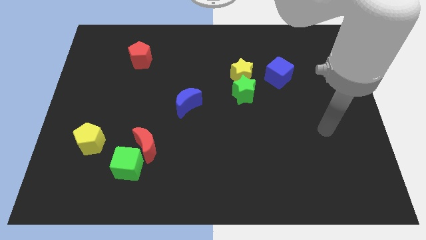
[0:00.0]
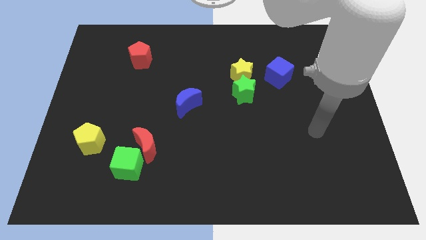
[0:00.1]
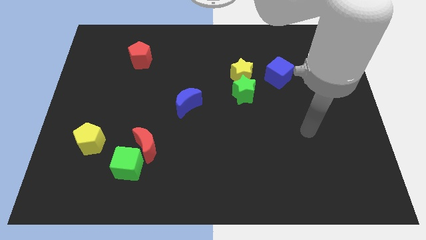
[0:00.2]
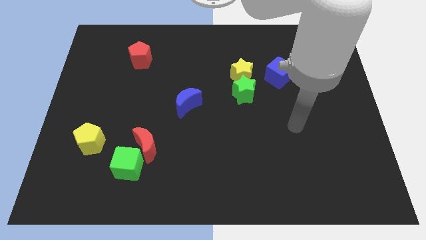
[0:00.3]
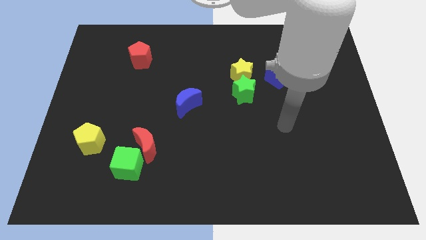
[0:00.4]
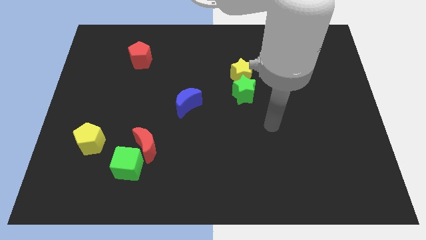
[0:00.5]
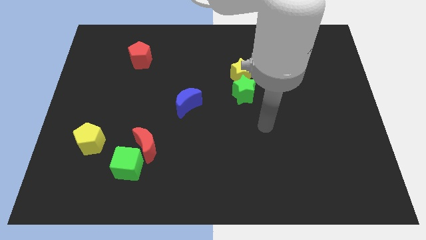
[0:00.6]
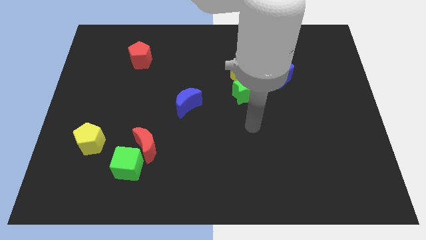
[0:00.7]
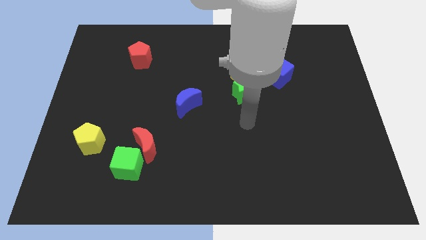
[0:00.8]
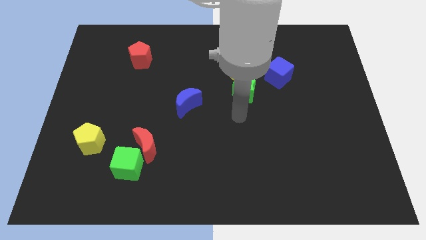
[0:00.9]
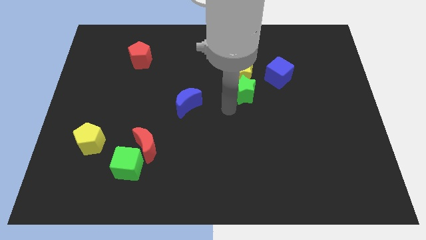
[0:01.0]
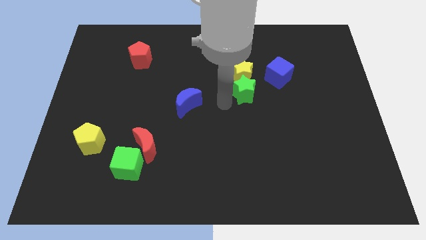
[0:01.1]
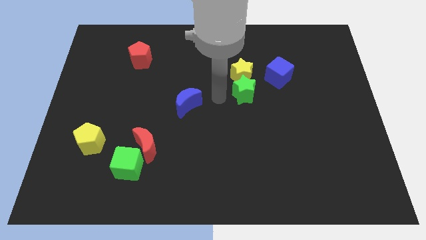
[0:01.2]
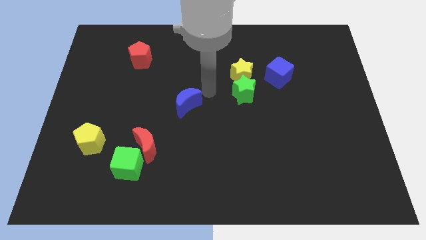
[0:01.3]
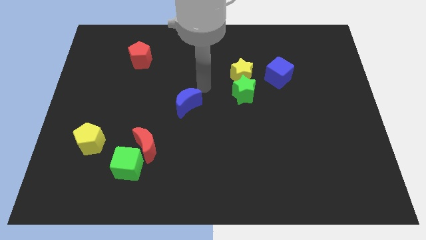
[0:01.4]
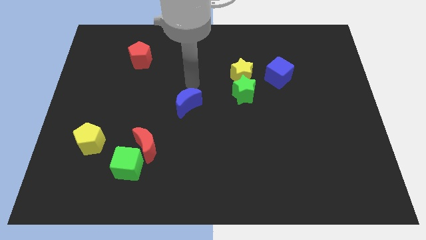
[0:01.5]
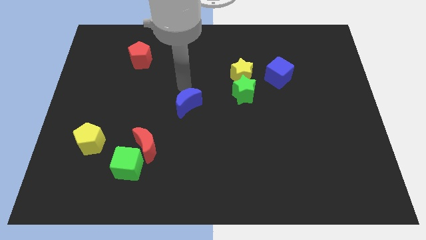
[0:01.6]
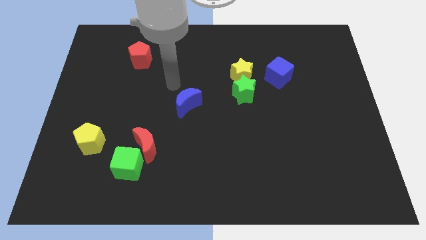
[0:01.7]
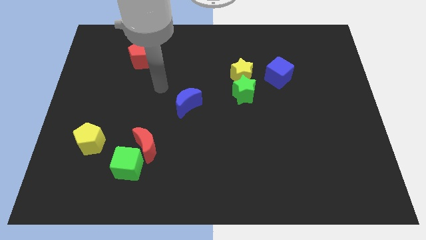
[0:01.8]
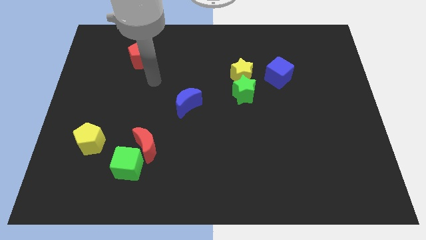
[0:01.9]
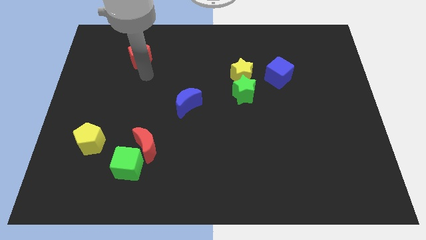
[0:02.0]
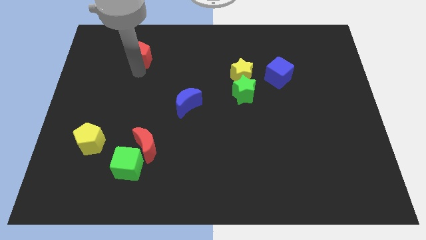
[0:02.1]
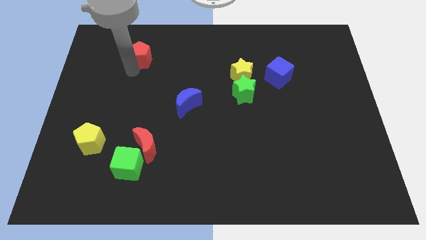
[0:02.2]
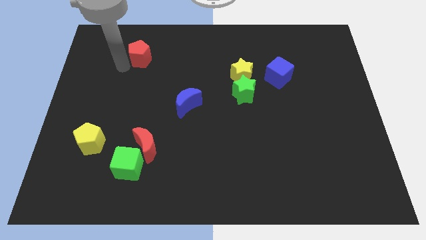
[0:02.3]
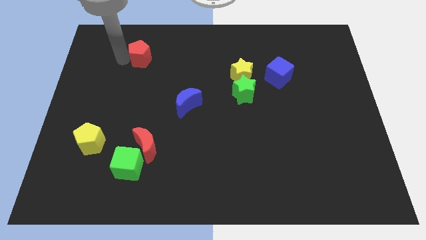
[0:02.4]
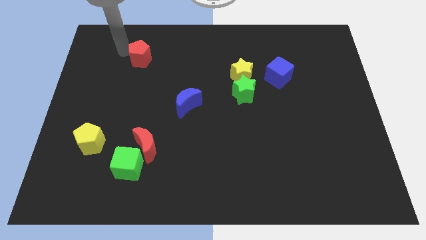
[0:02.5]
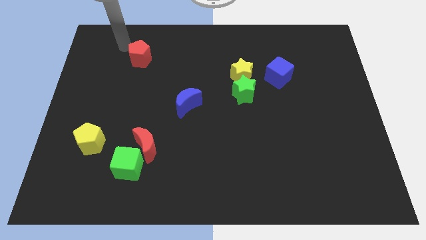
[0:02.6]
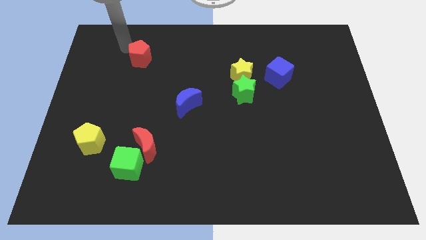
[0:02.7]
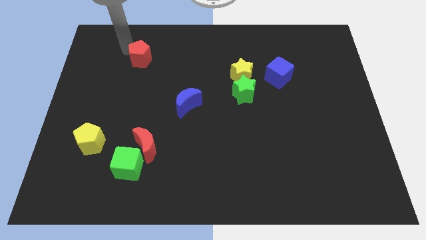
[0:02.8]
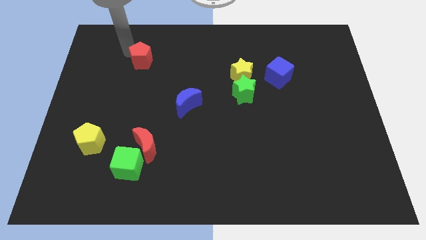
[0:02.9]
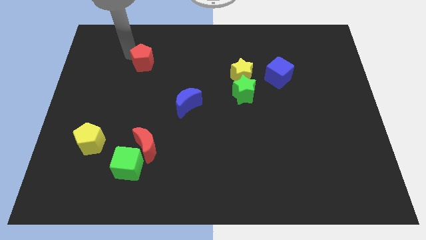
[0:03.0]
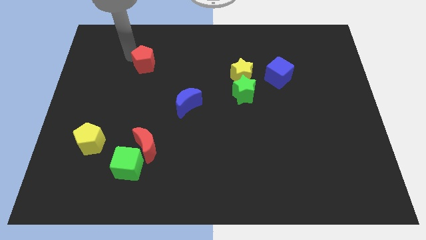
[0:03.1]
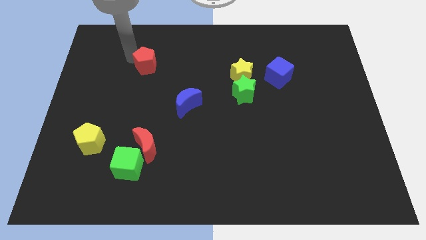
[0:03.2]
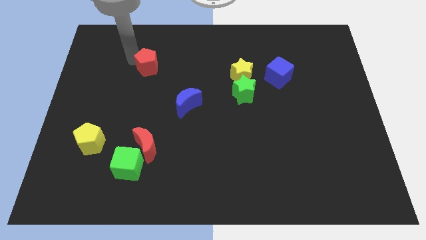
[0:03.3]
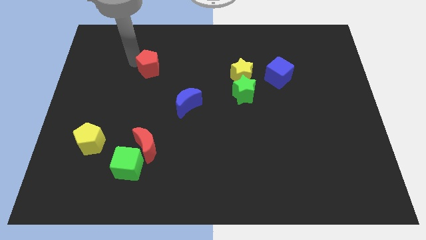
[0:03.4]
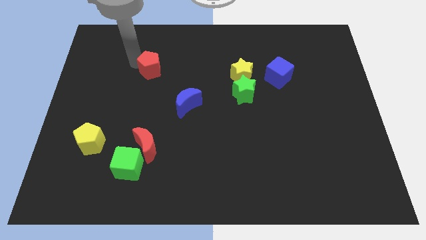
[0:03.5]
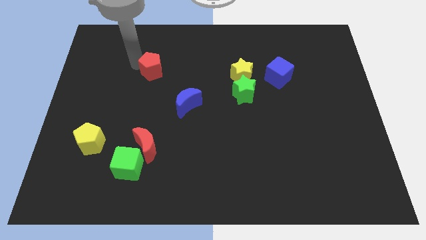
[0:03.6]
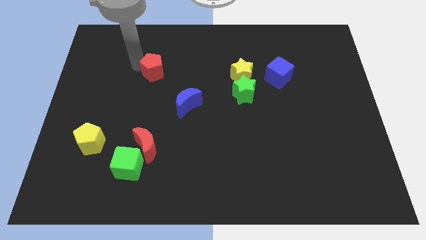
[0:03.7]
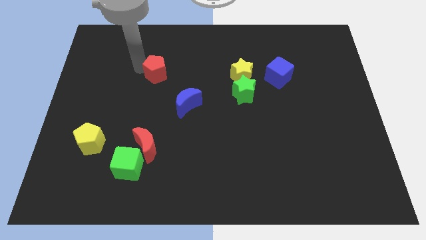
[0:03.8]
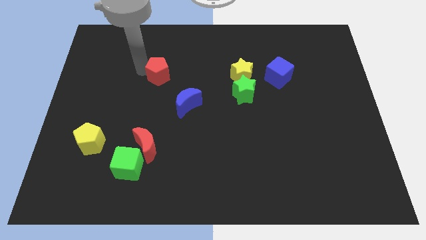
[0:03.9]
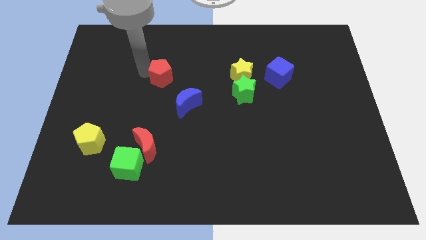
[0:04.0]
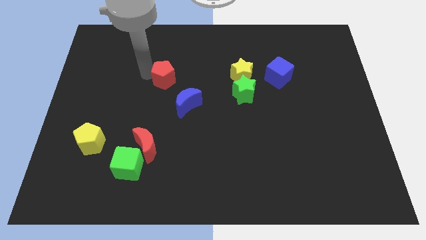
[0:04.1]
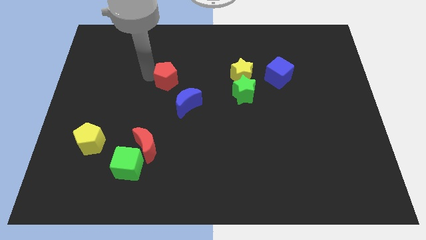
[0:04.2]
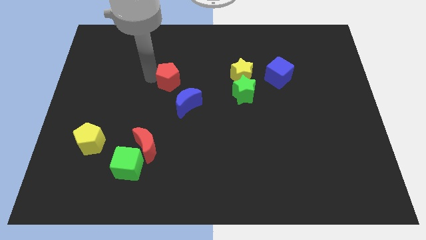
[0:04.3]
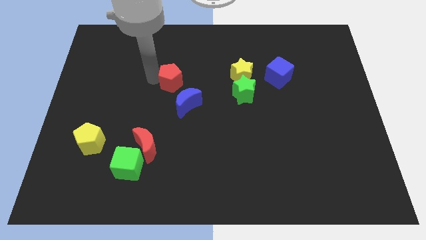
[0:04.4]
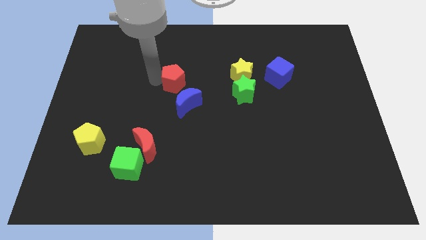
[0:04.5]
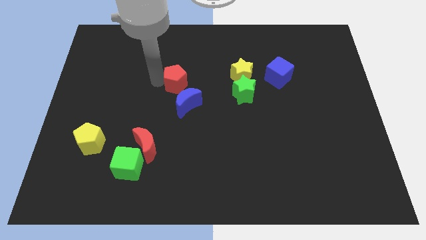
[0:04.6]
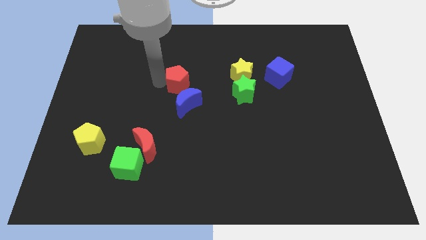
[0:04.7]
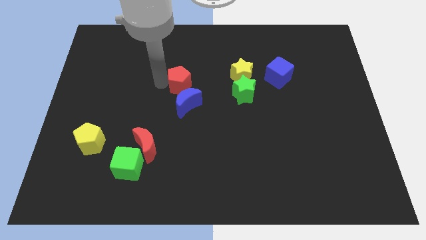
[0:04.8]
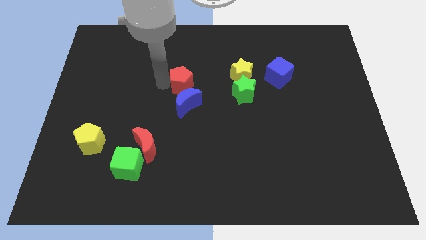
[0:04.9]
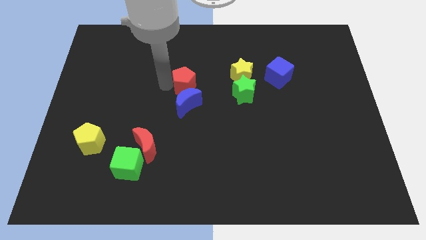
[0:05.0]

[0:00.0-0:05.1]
put the red pentagon diagonally up and to the right of the blue moon

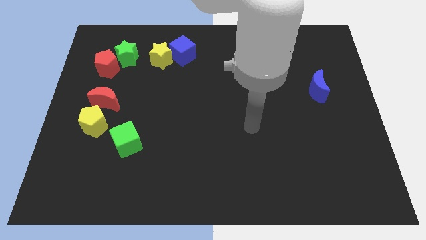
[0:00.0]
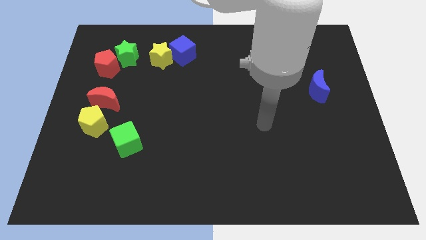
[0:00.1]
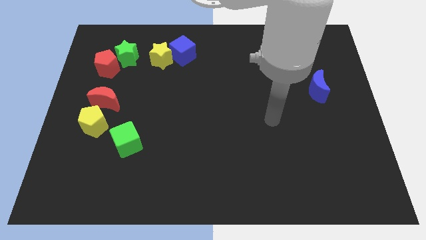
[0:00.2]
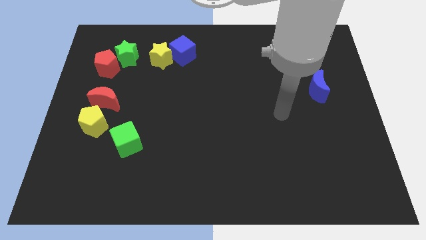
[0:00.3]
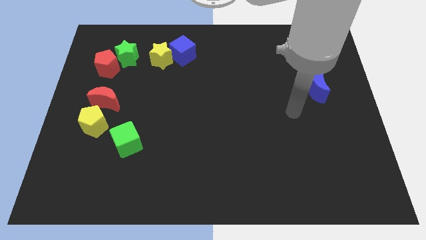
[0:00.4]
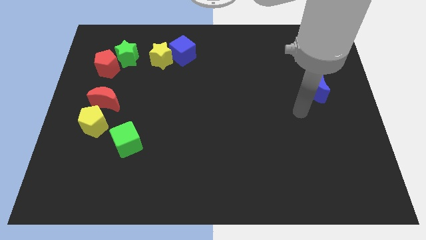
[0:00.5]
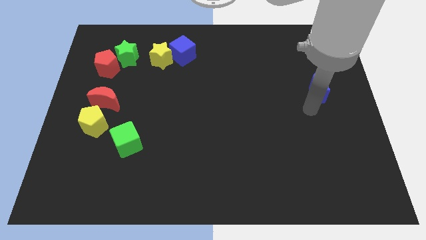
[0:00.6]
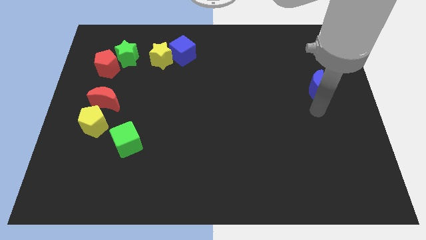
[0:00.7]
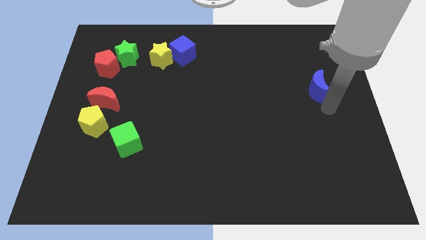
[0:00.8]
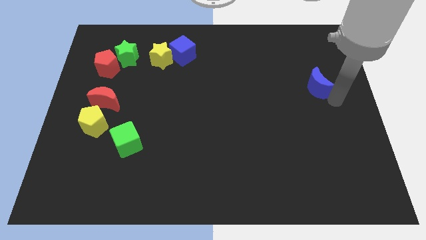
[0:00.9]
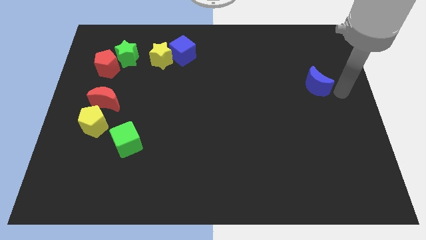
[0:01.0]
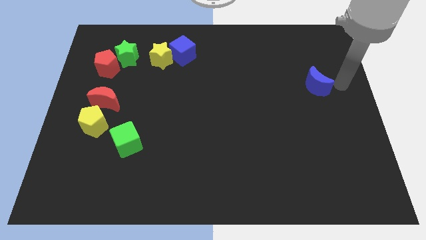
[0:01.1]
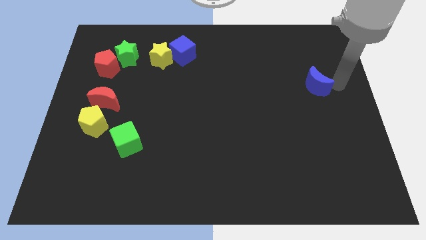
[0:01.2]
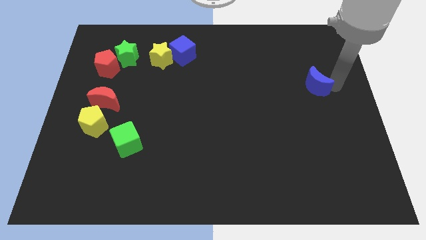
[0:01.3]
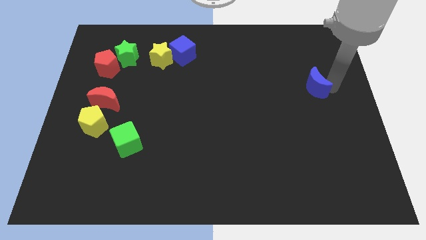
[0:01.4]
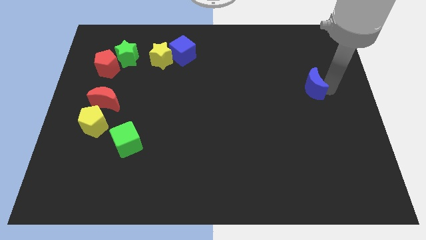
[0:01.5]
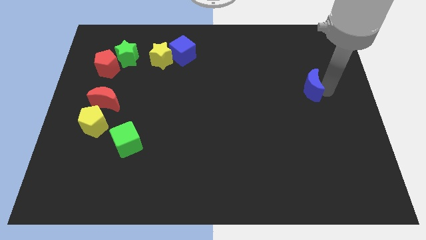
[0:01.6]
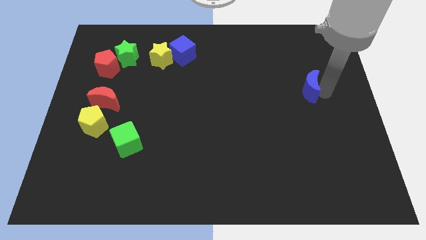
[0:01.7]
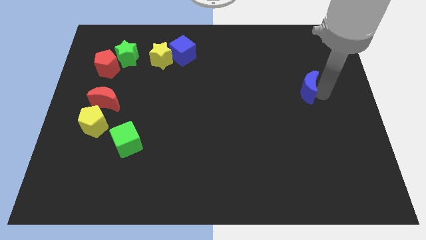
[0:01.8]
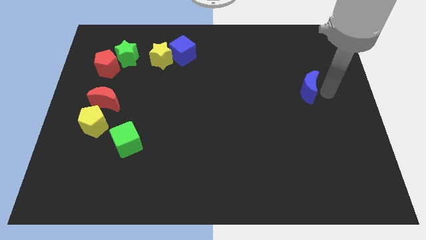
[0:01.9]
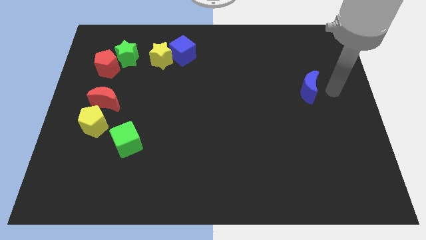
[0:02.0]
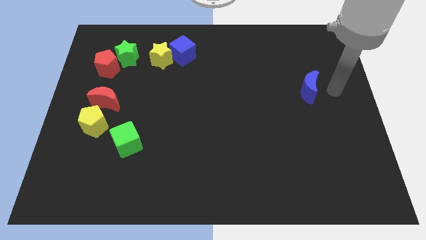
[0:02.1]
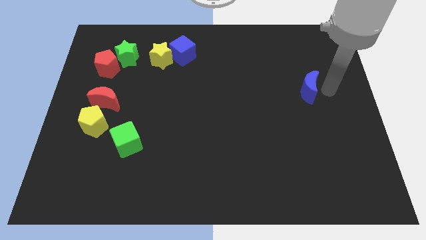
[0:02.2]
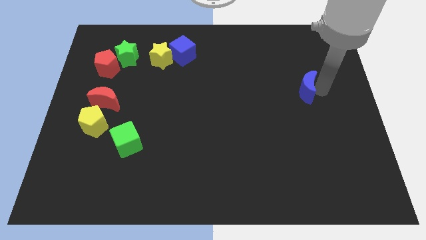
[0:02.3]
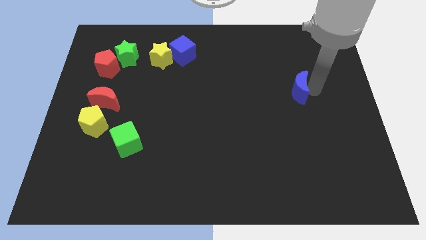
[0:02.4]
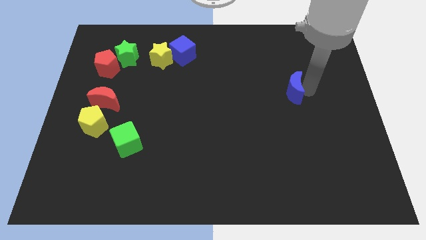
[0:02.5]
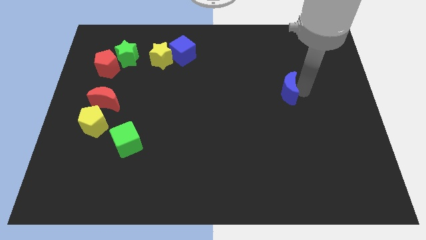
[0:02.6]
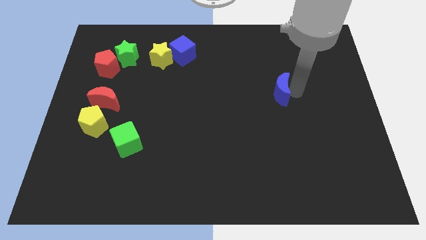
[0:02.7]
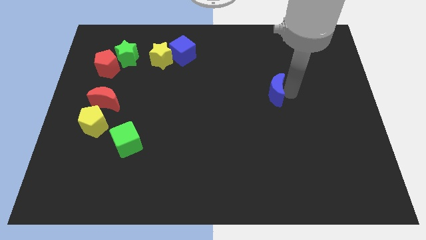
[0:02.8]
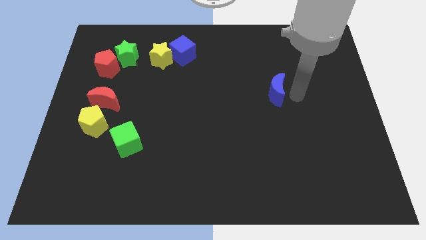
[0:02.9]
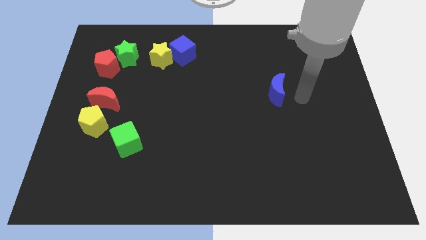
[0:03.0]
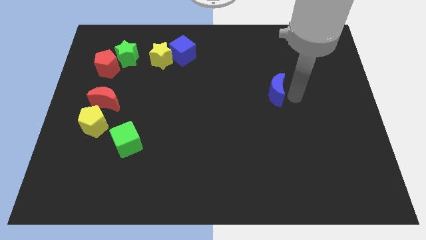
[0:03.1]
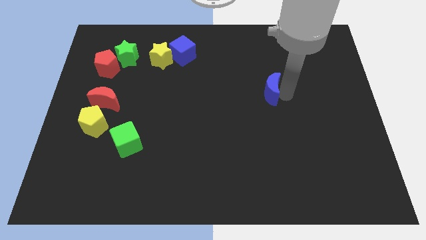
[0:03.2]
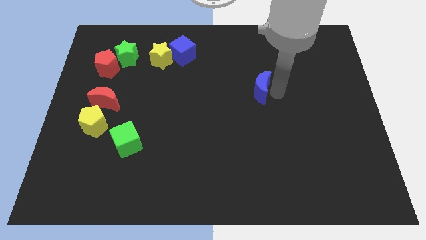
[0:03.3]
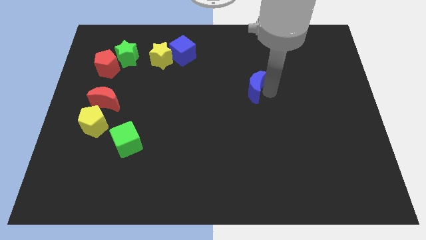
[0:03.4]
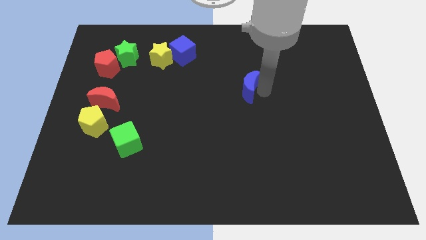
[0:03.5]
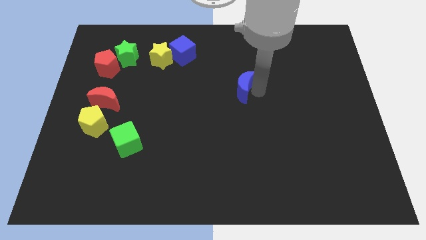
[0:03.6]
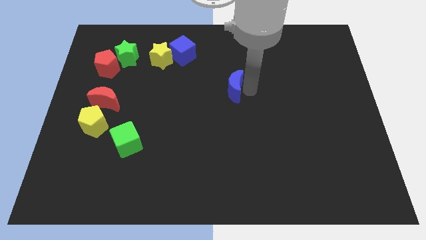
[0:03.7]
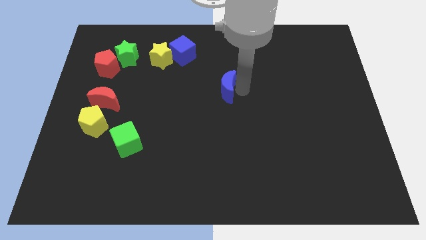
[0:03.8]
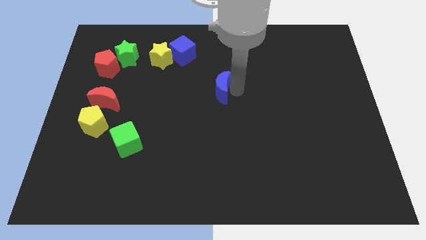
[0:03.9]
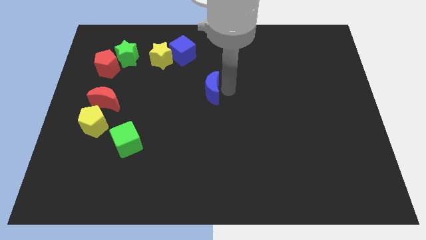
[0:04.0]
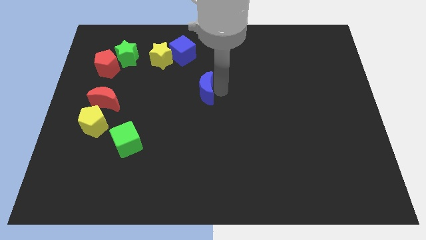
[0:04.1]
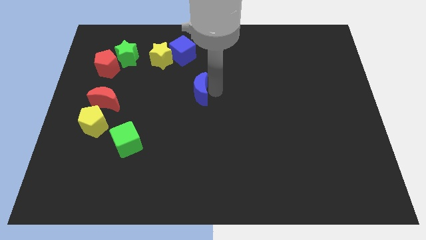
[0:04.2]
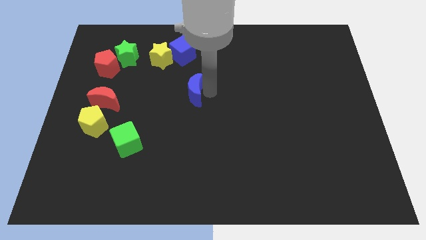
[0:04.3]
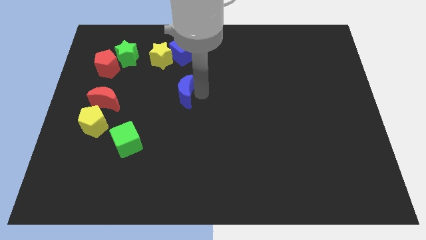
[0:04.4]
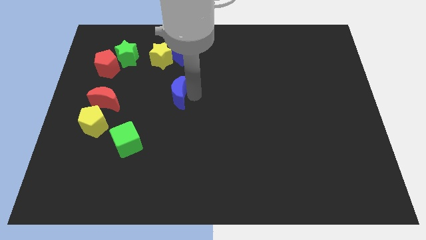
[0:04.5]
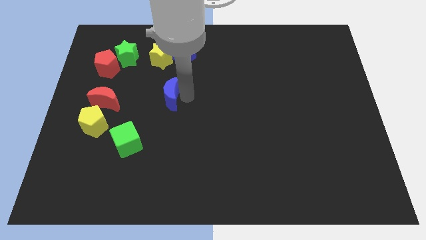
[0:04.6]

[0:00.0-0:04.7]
slide the blue moon to the bottom of the yellow star
